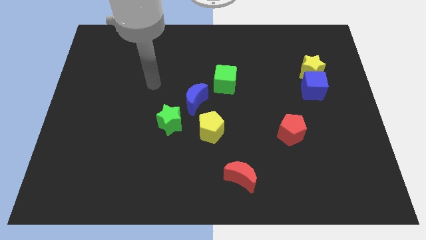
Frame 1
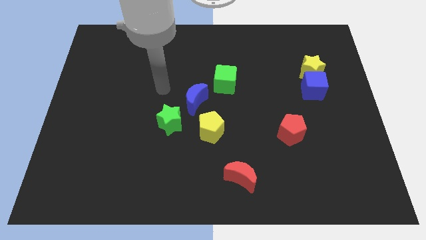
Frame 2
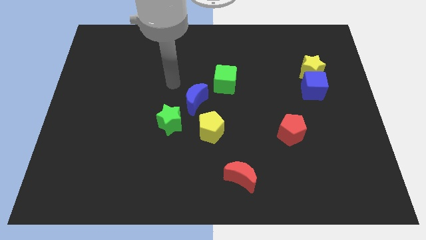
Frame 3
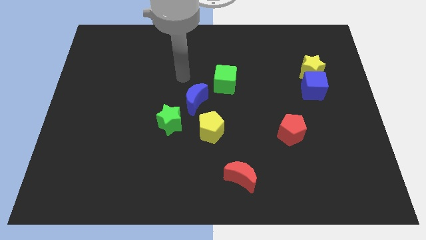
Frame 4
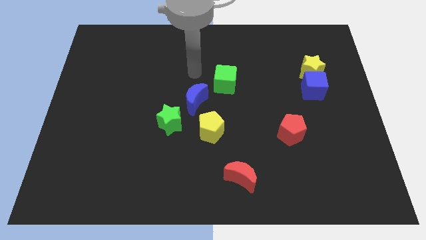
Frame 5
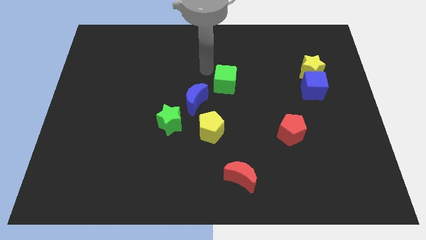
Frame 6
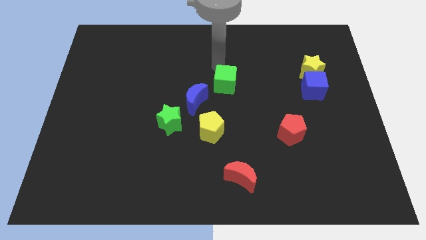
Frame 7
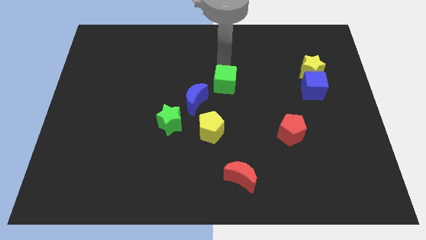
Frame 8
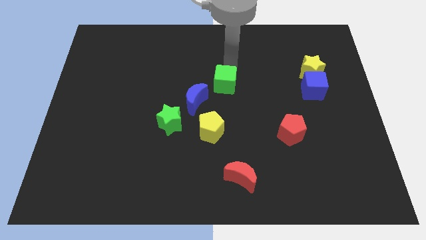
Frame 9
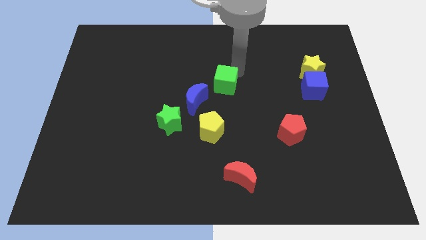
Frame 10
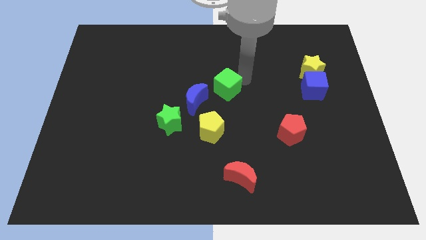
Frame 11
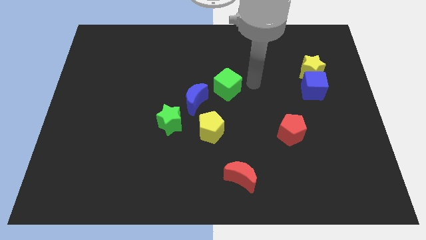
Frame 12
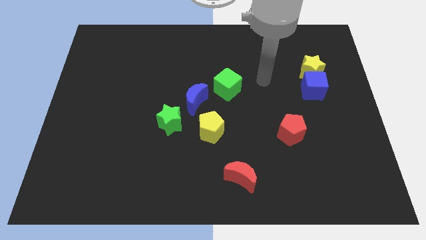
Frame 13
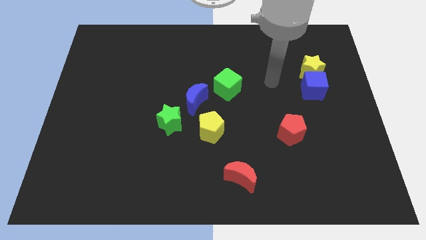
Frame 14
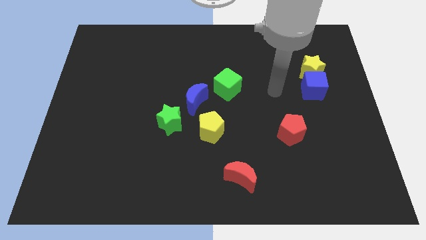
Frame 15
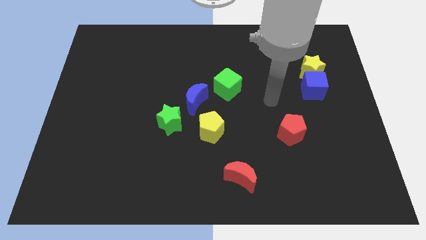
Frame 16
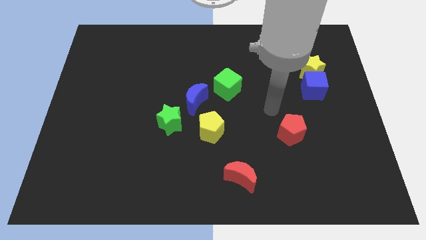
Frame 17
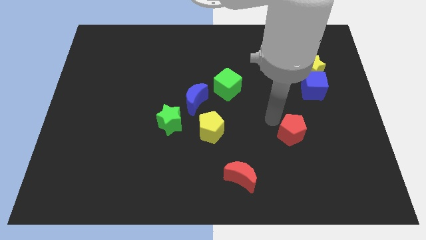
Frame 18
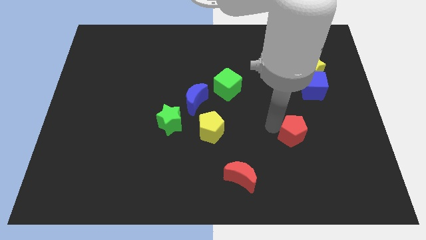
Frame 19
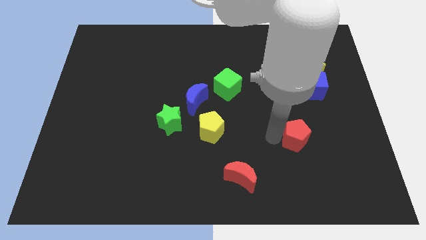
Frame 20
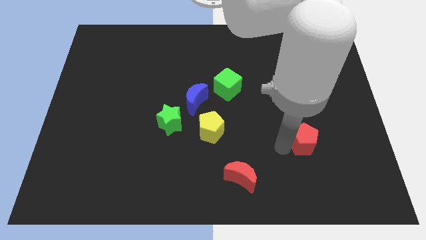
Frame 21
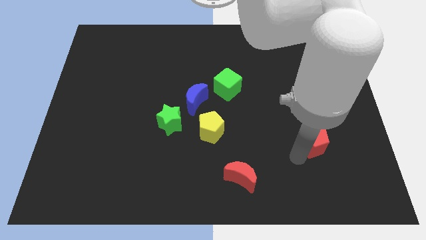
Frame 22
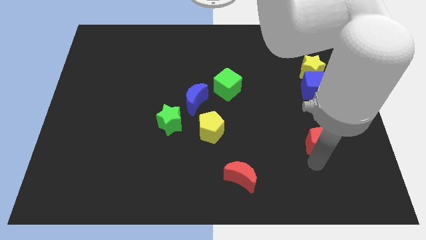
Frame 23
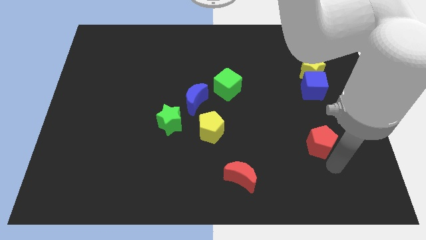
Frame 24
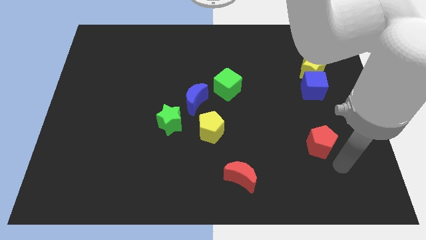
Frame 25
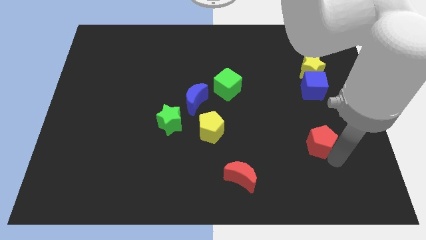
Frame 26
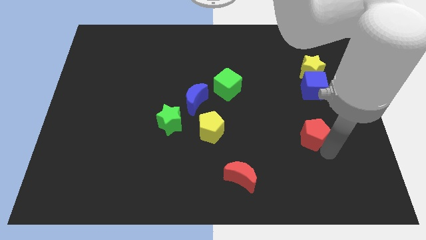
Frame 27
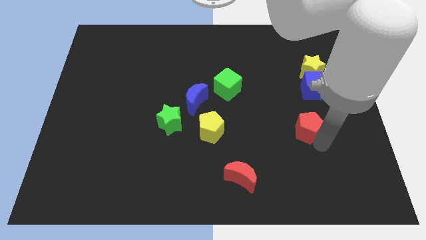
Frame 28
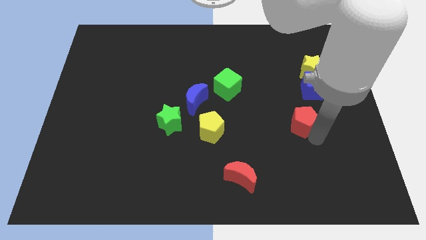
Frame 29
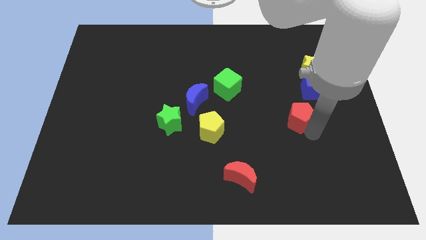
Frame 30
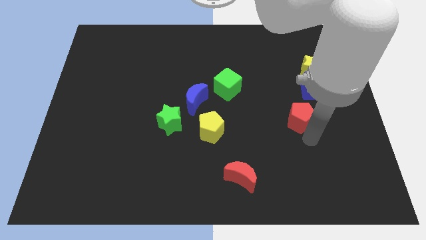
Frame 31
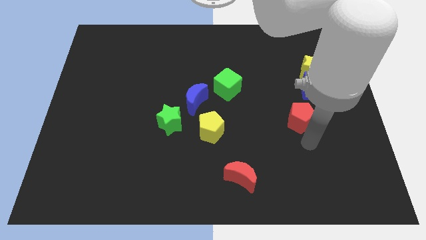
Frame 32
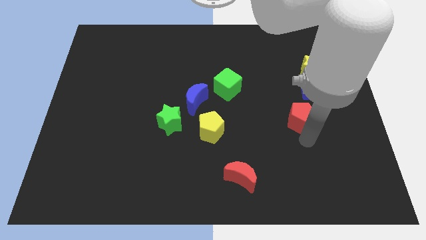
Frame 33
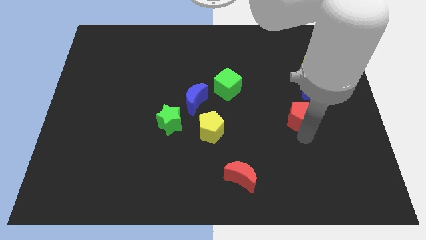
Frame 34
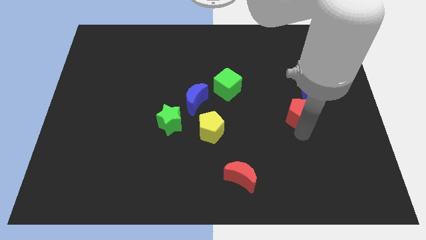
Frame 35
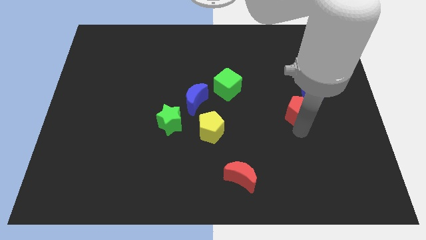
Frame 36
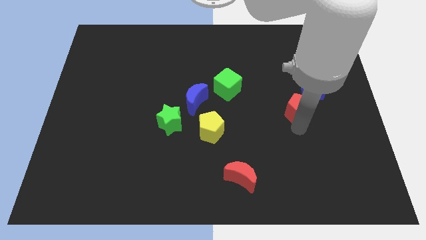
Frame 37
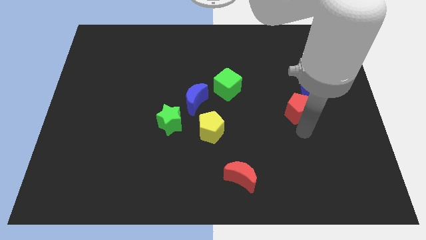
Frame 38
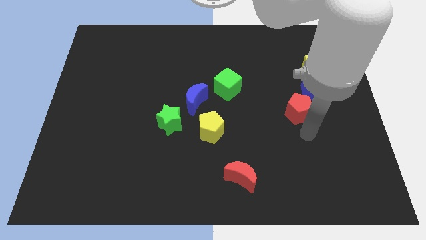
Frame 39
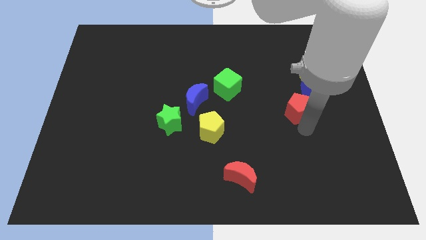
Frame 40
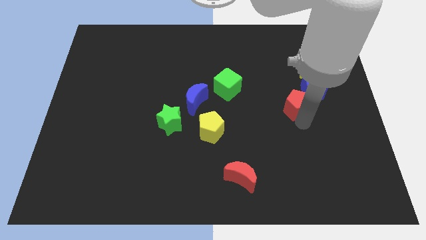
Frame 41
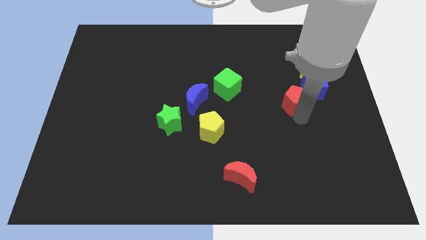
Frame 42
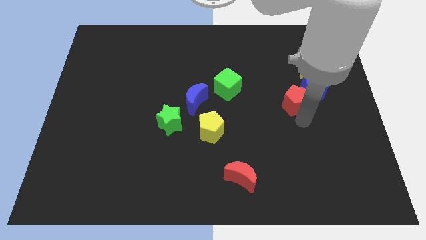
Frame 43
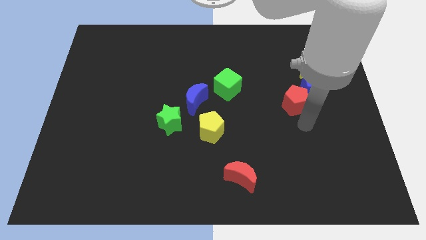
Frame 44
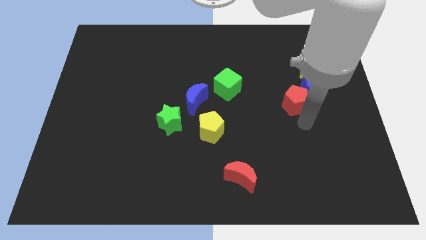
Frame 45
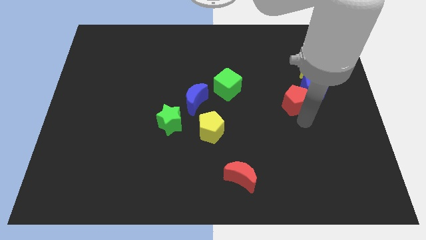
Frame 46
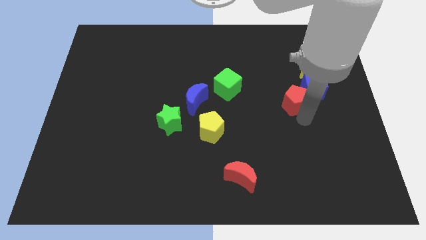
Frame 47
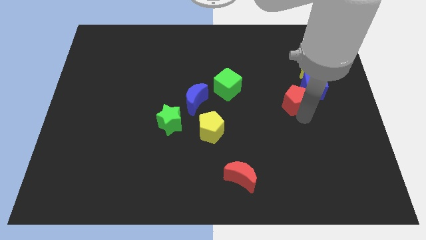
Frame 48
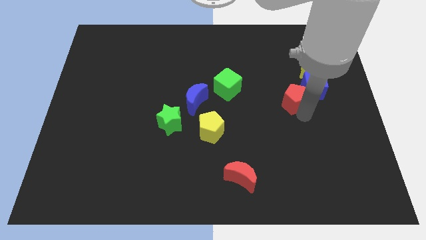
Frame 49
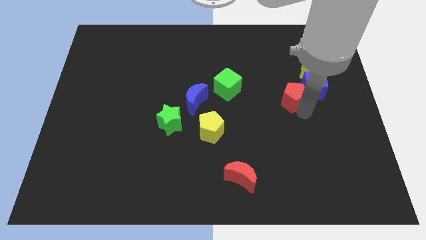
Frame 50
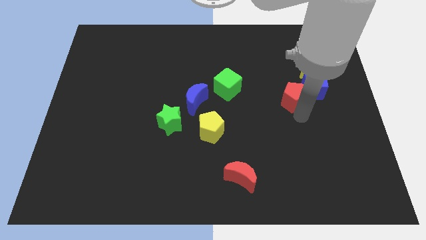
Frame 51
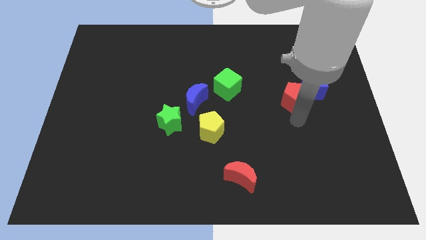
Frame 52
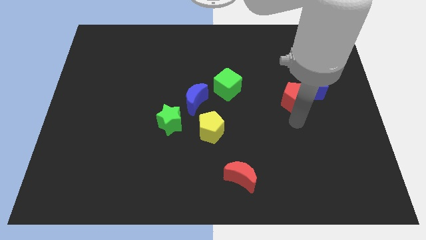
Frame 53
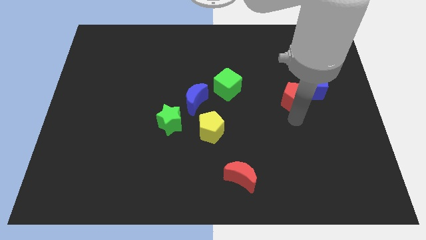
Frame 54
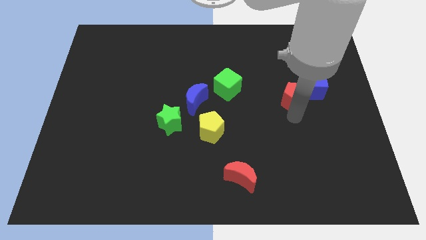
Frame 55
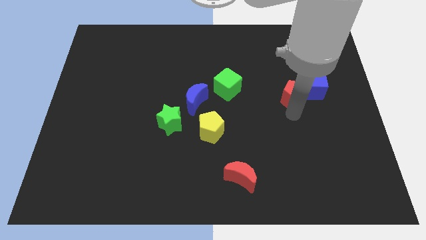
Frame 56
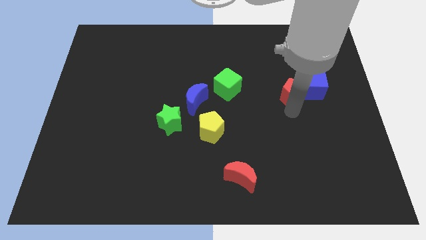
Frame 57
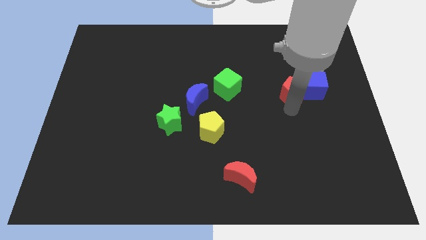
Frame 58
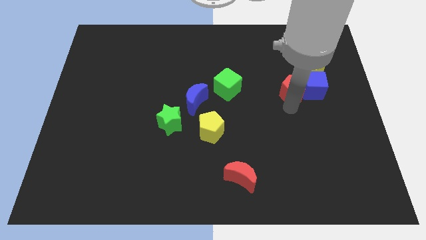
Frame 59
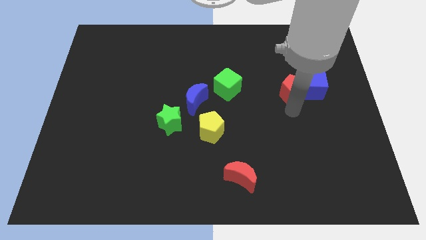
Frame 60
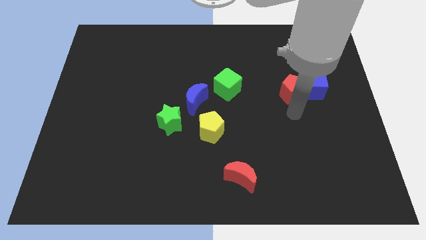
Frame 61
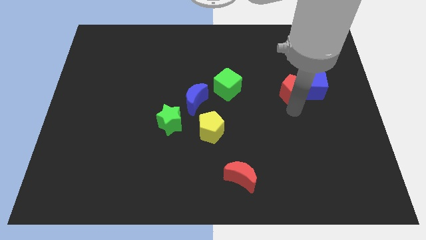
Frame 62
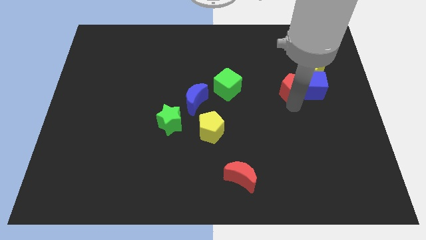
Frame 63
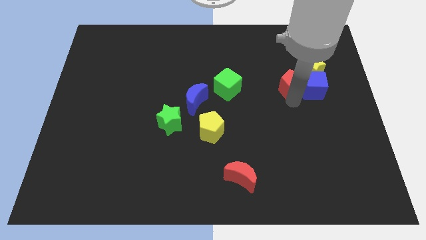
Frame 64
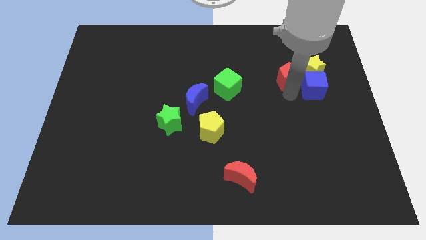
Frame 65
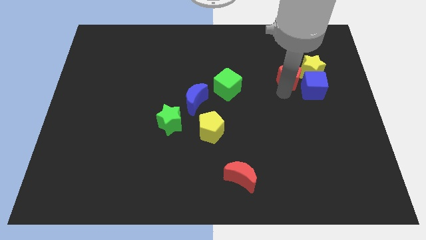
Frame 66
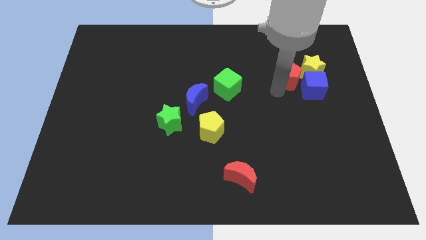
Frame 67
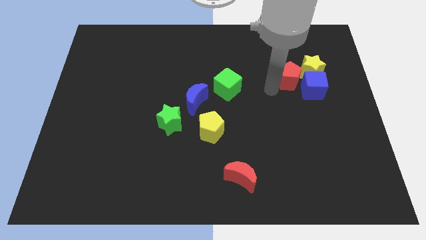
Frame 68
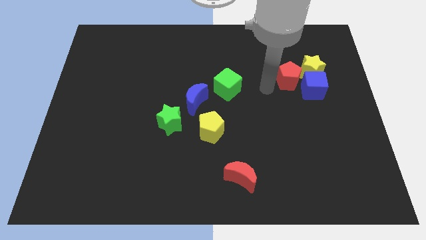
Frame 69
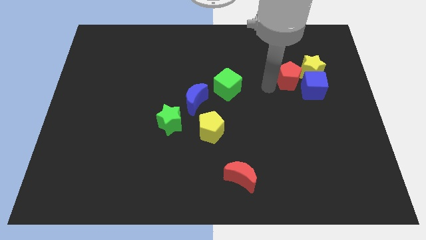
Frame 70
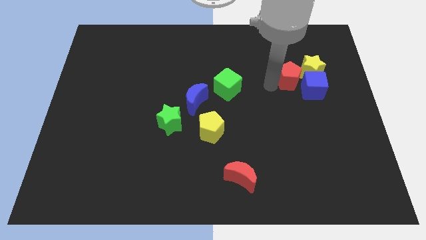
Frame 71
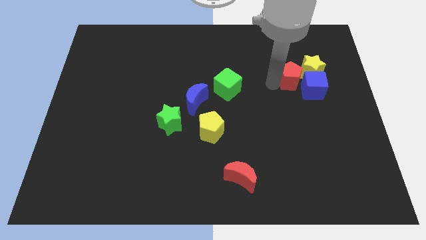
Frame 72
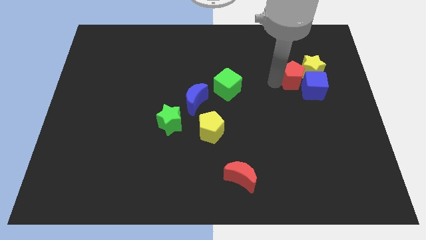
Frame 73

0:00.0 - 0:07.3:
put the red pentagon towards the yellow star

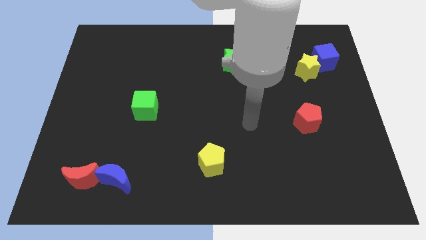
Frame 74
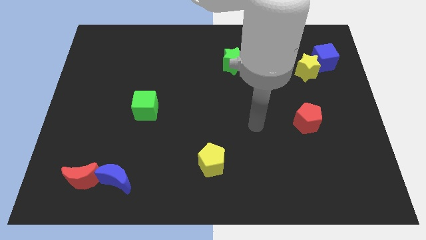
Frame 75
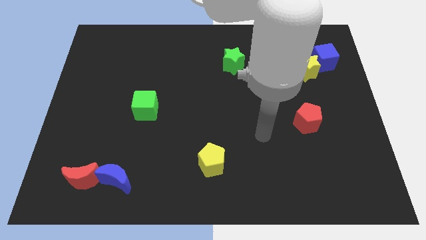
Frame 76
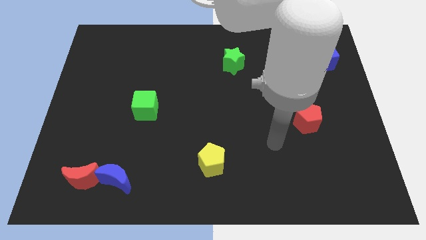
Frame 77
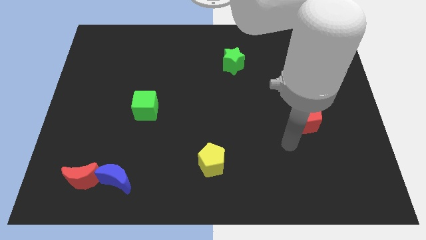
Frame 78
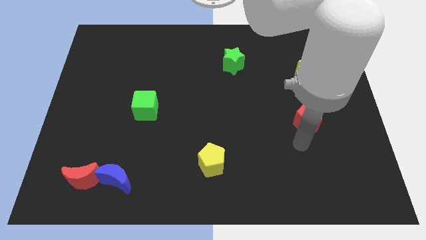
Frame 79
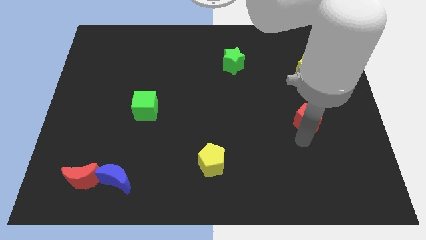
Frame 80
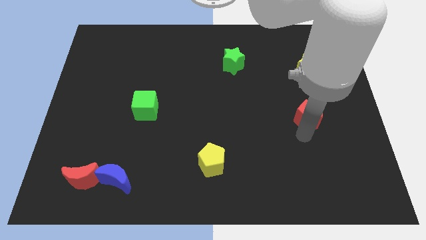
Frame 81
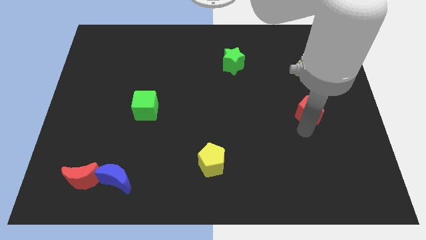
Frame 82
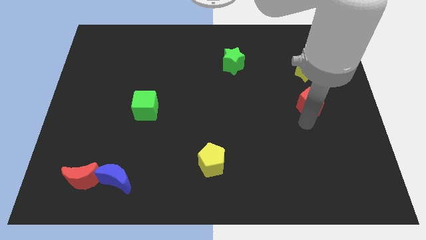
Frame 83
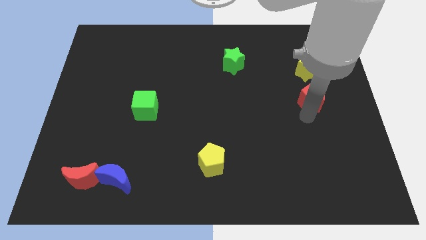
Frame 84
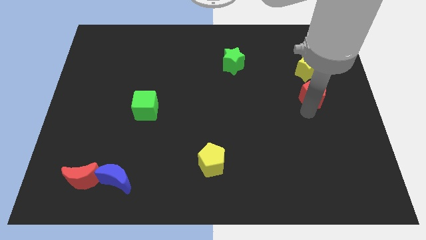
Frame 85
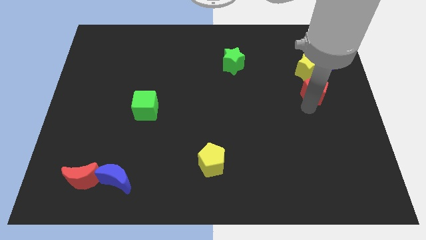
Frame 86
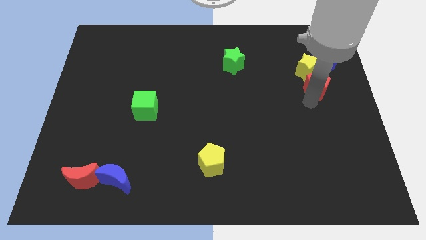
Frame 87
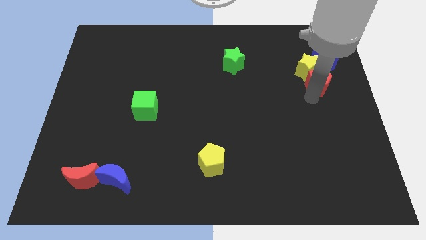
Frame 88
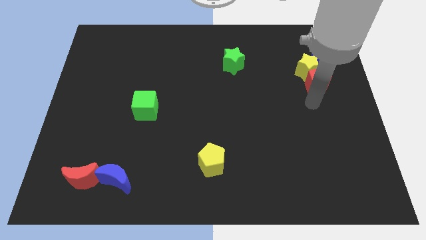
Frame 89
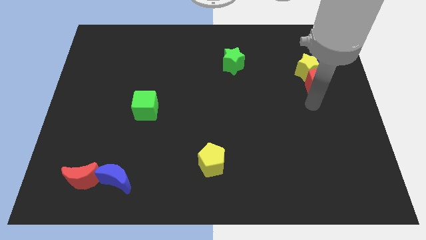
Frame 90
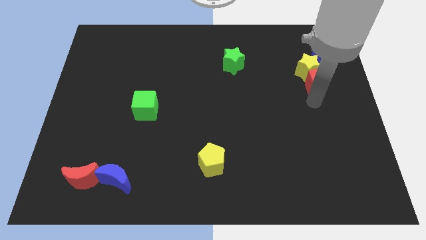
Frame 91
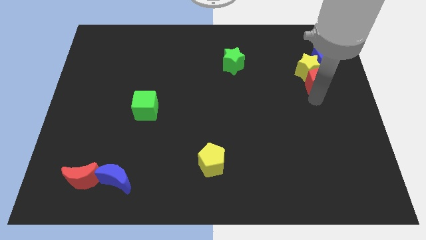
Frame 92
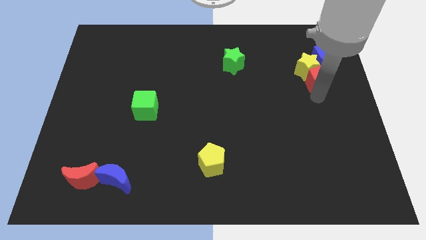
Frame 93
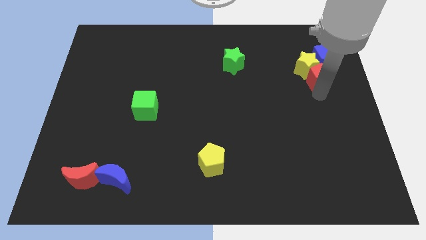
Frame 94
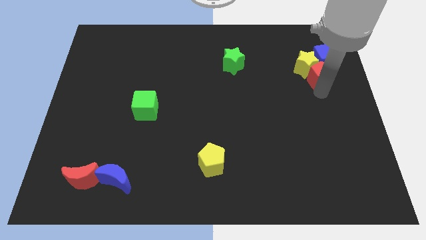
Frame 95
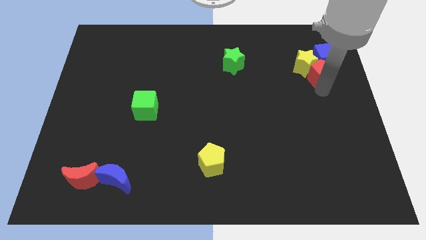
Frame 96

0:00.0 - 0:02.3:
move the red pentagon close to the blue cube
